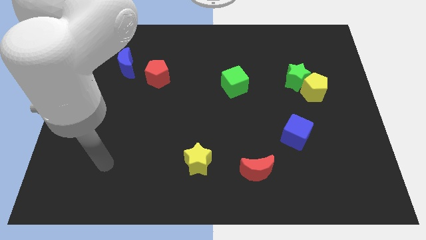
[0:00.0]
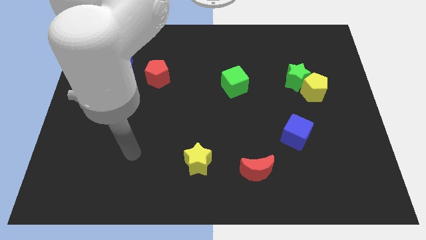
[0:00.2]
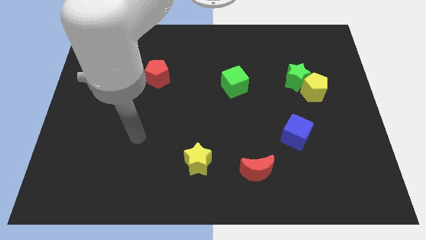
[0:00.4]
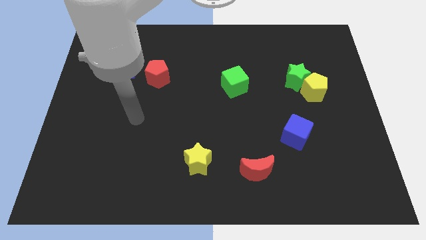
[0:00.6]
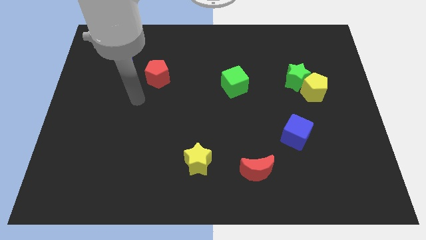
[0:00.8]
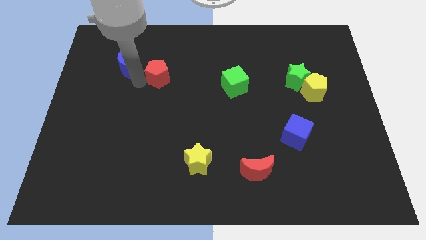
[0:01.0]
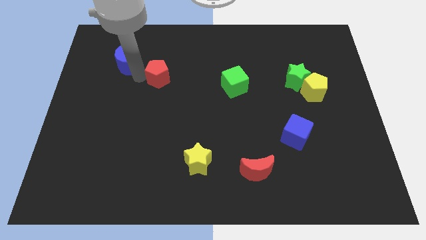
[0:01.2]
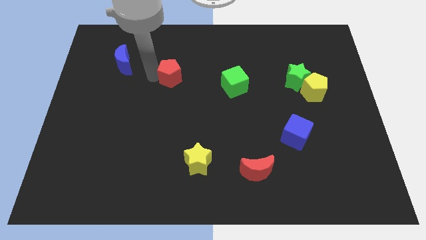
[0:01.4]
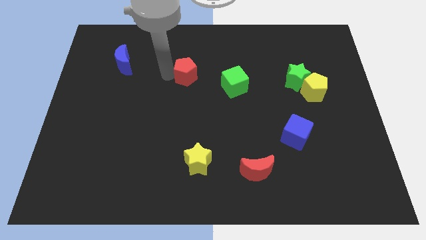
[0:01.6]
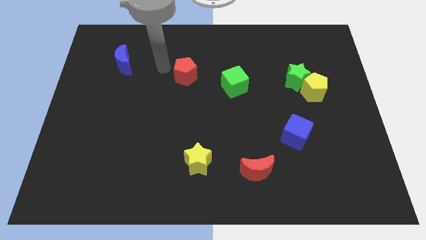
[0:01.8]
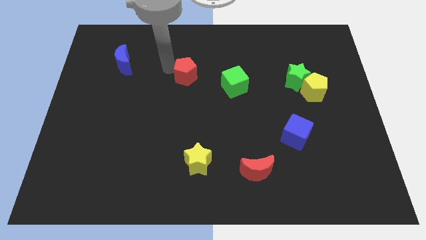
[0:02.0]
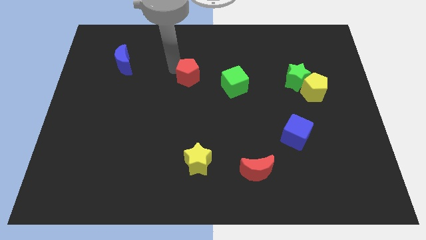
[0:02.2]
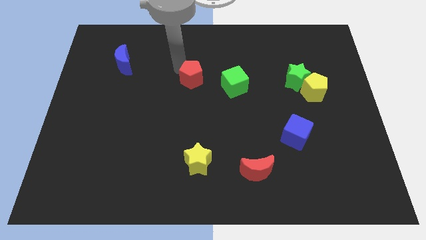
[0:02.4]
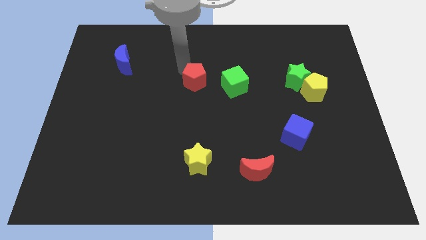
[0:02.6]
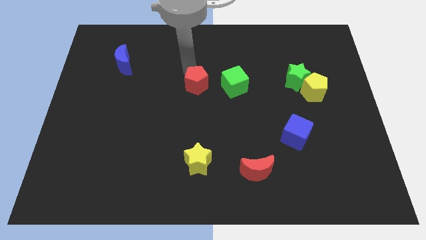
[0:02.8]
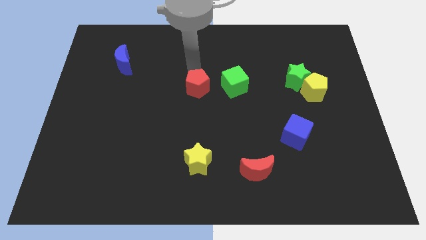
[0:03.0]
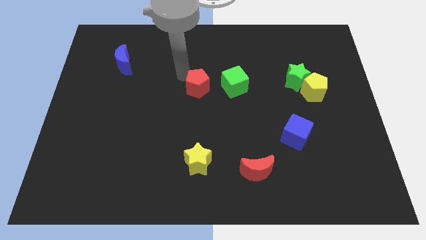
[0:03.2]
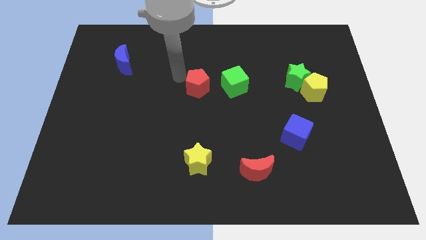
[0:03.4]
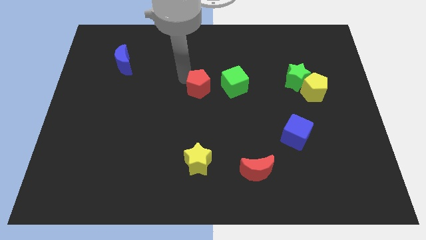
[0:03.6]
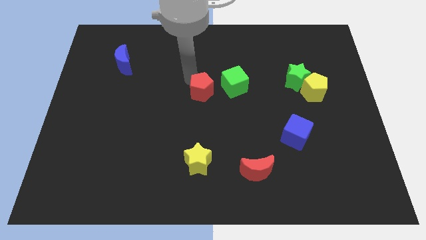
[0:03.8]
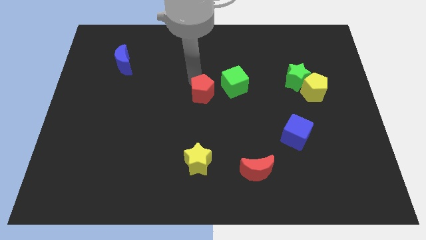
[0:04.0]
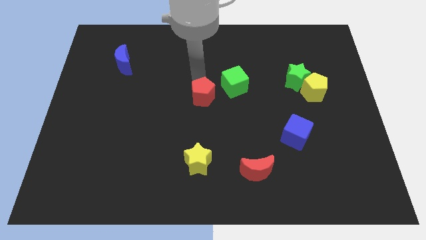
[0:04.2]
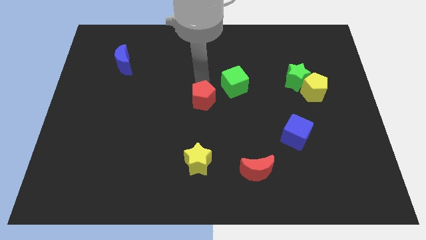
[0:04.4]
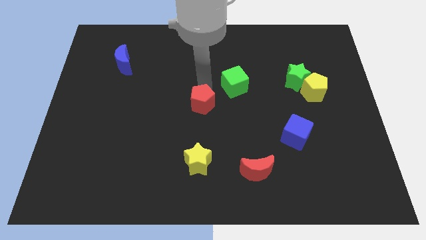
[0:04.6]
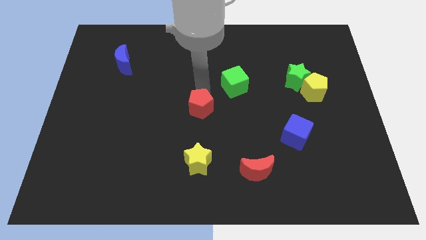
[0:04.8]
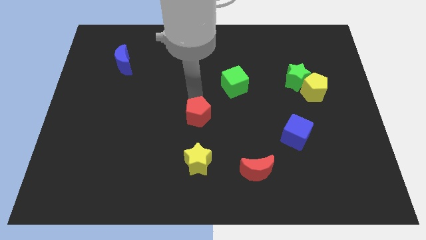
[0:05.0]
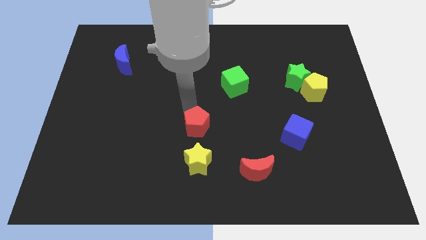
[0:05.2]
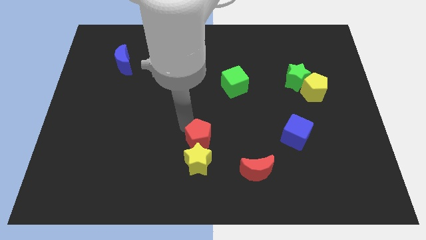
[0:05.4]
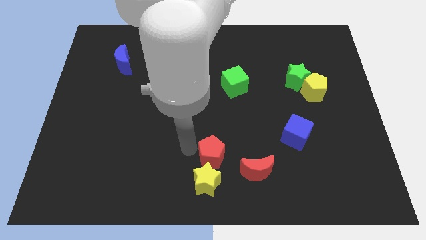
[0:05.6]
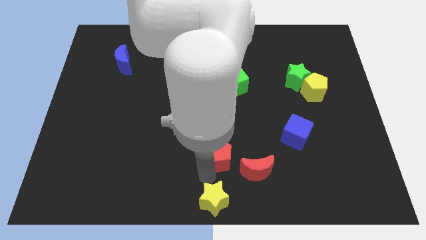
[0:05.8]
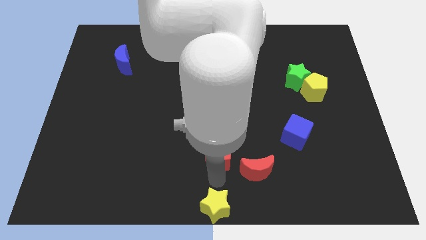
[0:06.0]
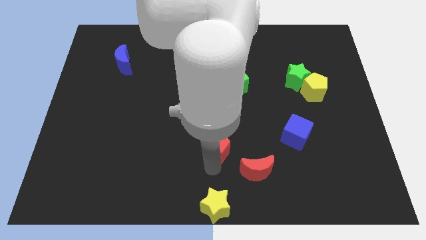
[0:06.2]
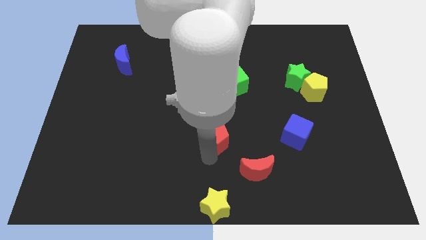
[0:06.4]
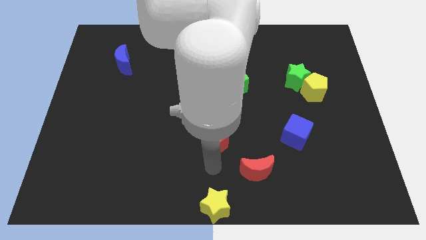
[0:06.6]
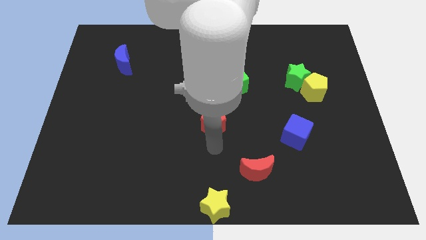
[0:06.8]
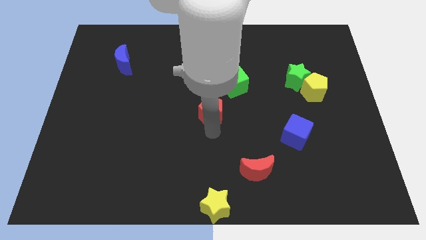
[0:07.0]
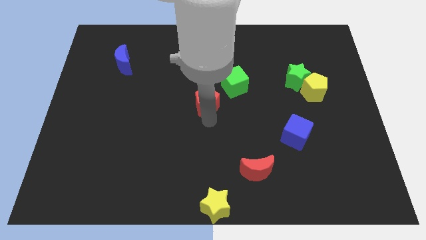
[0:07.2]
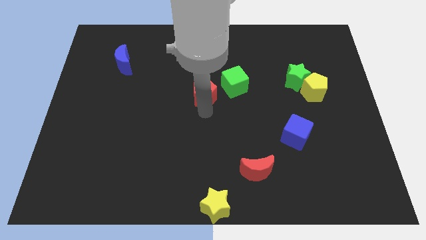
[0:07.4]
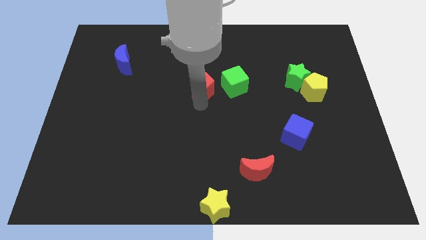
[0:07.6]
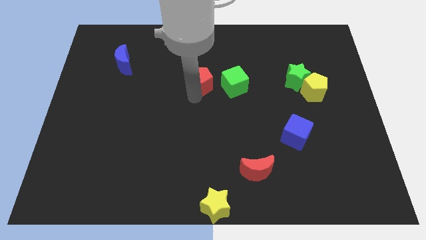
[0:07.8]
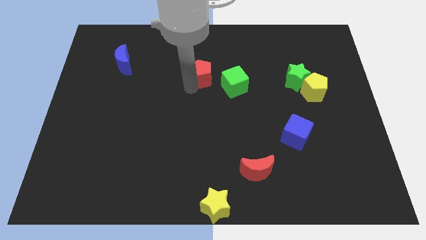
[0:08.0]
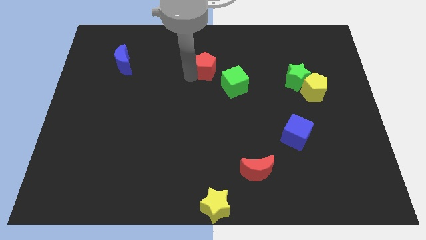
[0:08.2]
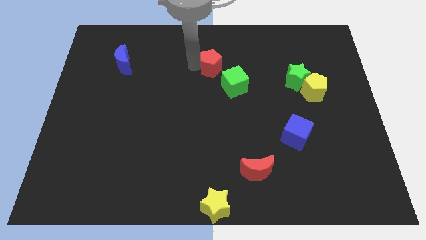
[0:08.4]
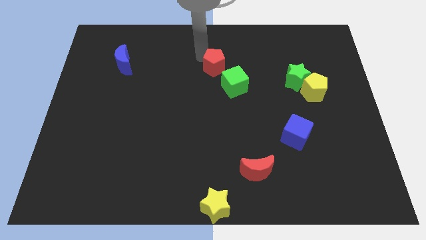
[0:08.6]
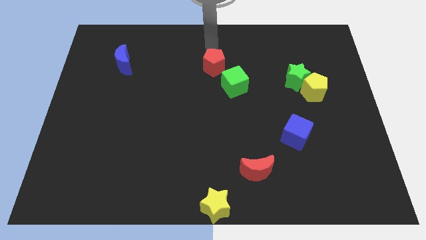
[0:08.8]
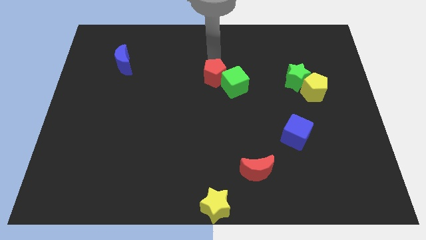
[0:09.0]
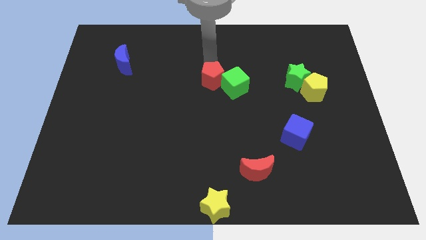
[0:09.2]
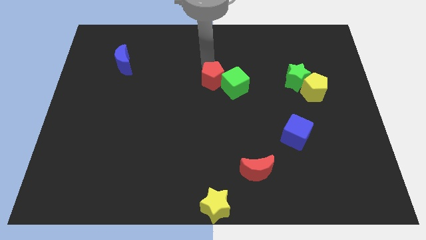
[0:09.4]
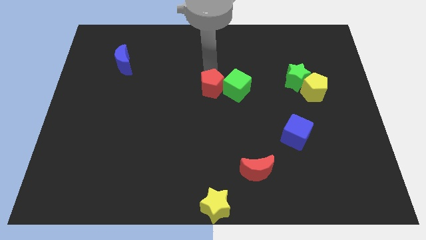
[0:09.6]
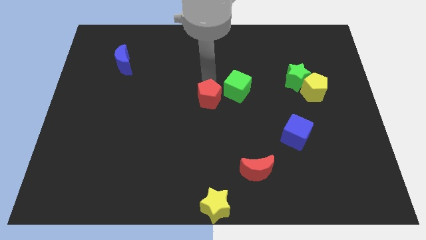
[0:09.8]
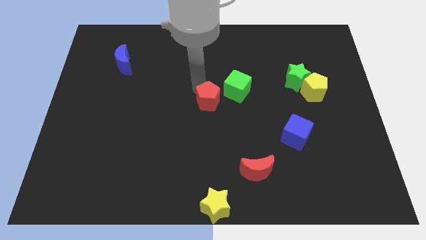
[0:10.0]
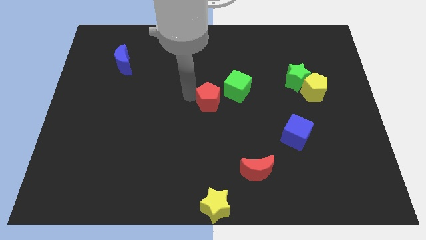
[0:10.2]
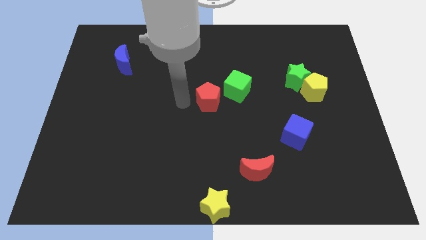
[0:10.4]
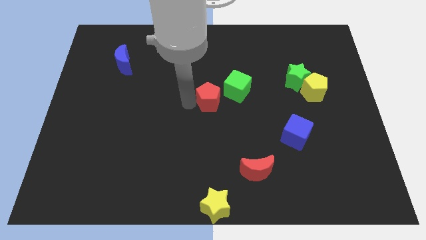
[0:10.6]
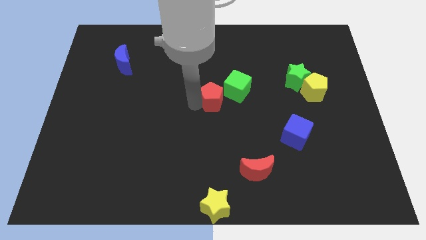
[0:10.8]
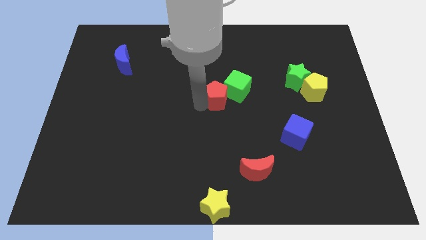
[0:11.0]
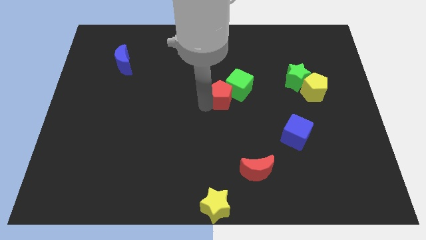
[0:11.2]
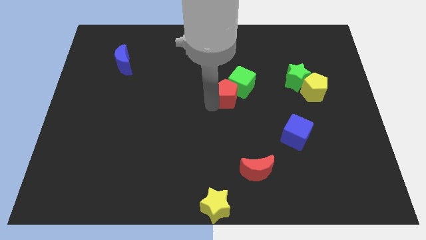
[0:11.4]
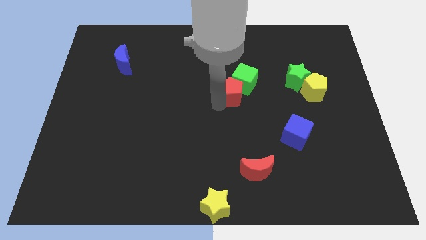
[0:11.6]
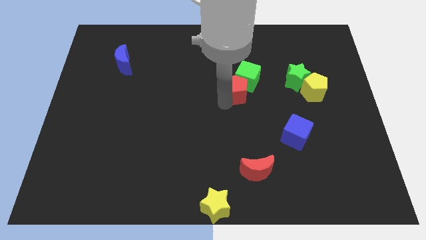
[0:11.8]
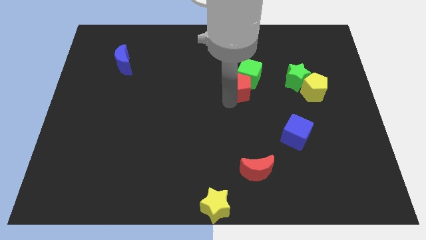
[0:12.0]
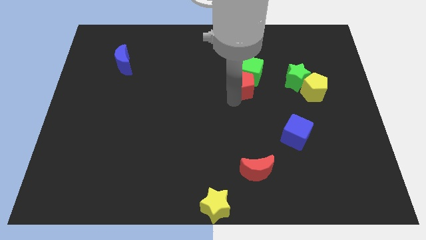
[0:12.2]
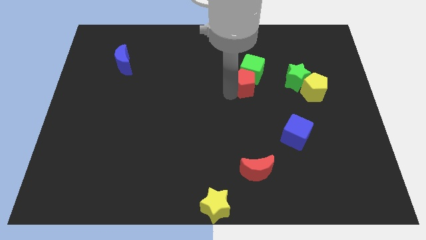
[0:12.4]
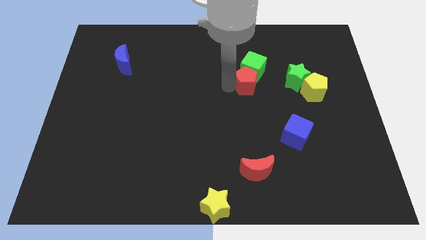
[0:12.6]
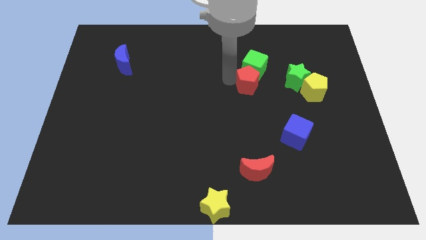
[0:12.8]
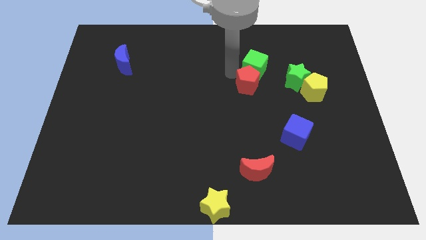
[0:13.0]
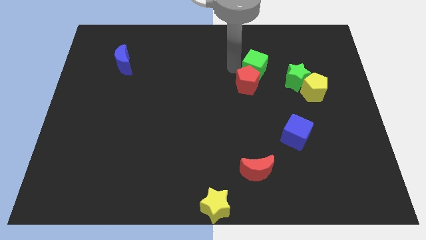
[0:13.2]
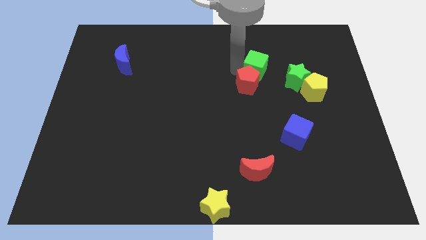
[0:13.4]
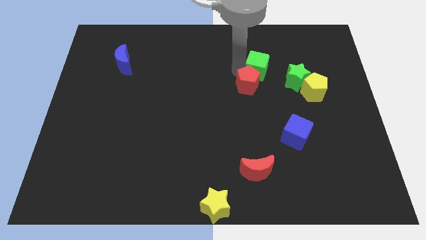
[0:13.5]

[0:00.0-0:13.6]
slide the red pentagon left of the yellow pentagon
